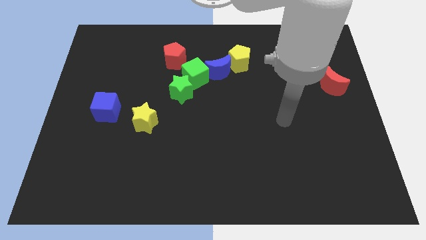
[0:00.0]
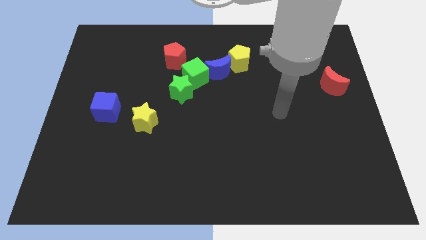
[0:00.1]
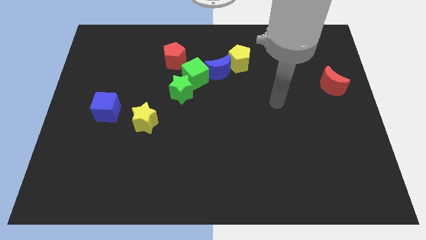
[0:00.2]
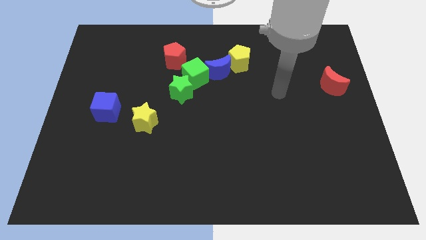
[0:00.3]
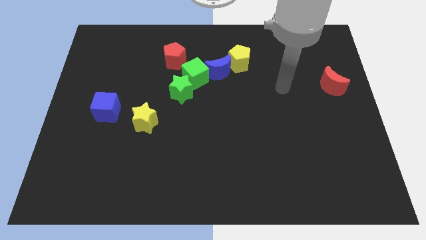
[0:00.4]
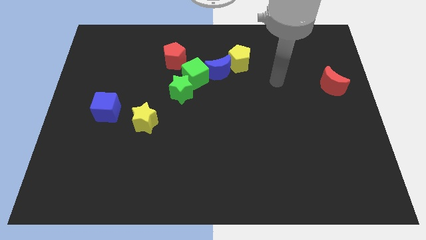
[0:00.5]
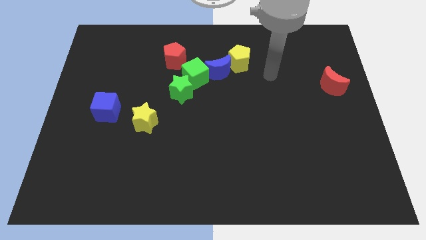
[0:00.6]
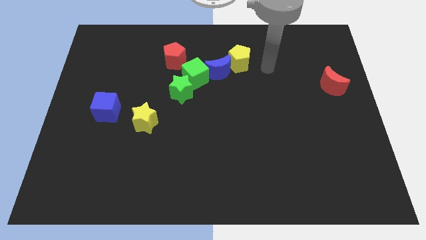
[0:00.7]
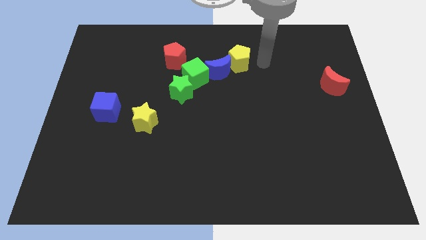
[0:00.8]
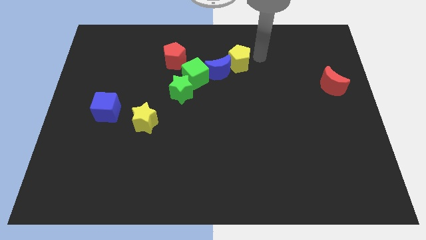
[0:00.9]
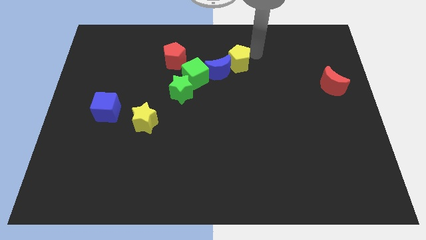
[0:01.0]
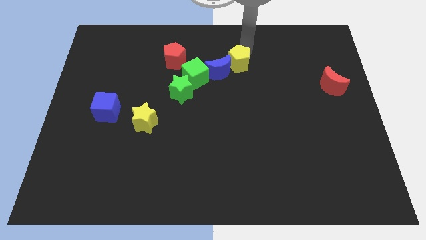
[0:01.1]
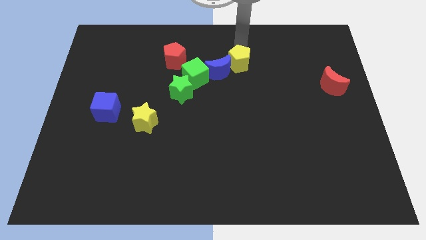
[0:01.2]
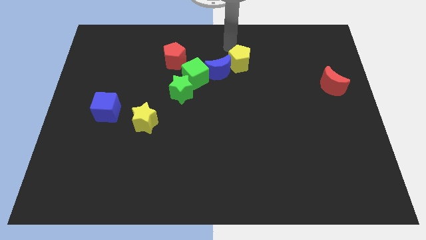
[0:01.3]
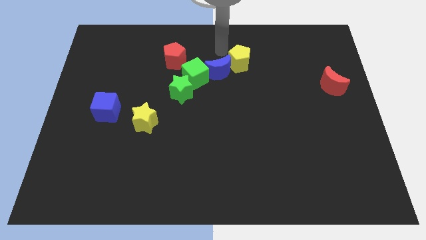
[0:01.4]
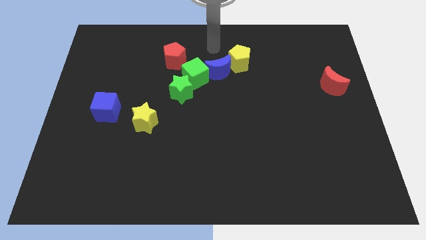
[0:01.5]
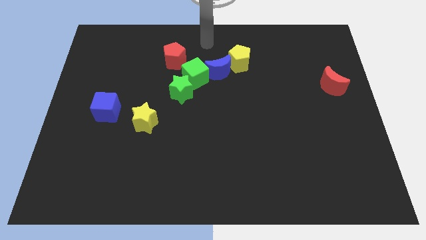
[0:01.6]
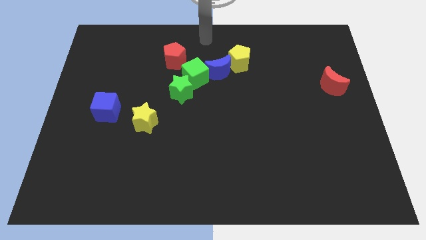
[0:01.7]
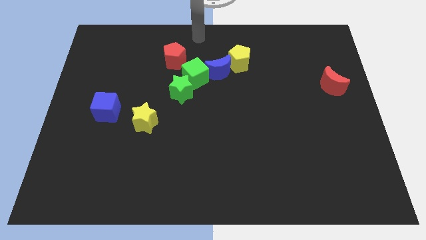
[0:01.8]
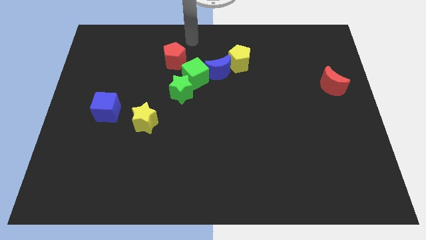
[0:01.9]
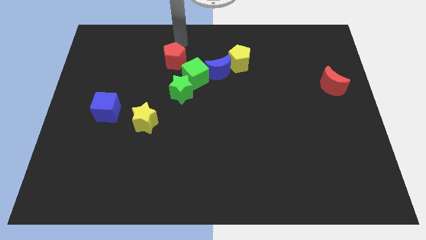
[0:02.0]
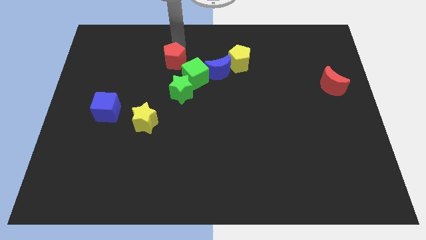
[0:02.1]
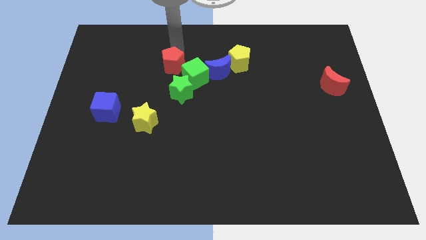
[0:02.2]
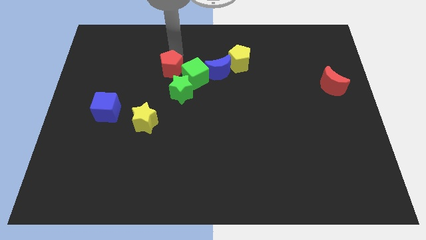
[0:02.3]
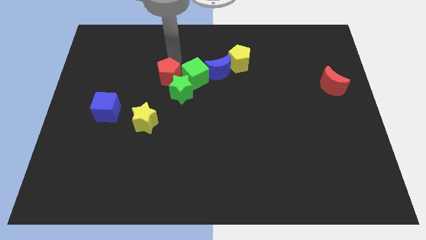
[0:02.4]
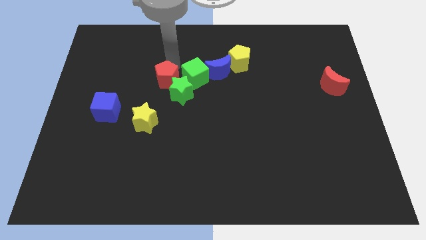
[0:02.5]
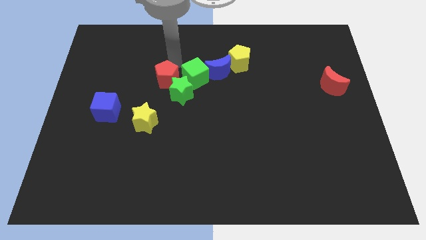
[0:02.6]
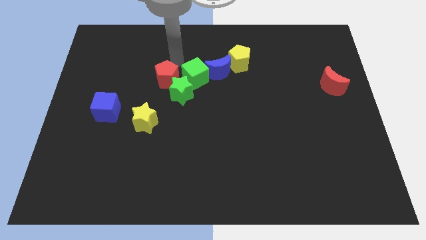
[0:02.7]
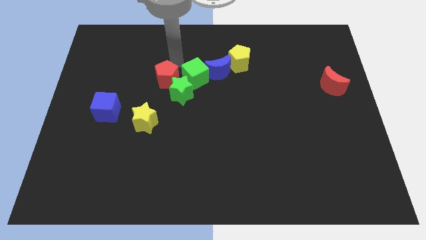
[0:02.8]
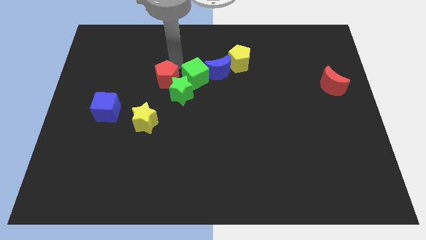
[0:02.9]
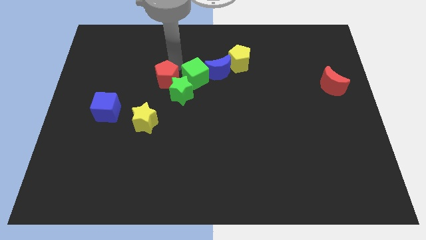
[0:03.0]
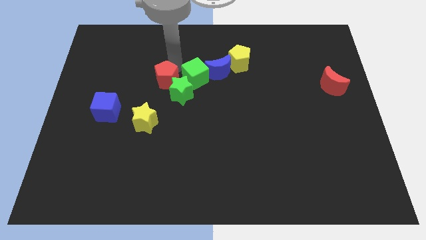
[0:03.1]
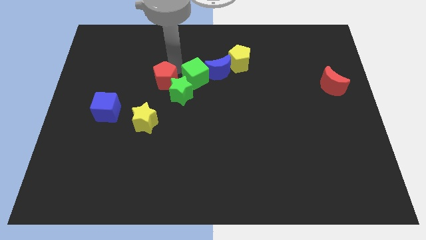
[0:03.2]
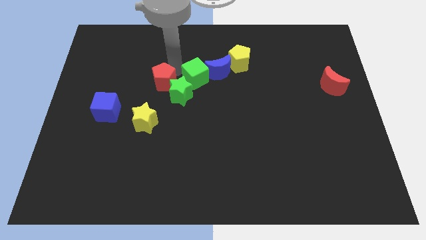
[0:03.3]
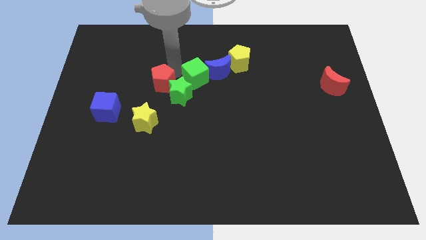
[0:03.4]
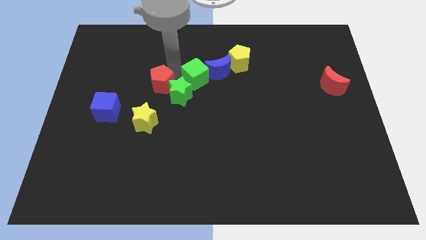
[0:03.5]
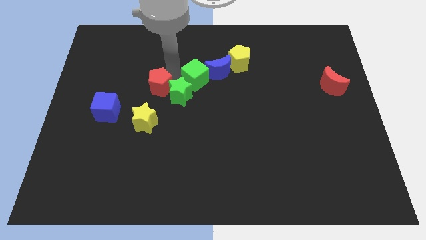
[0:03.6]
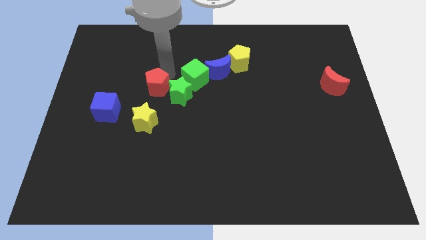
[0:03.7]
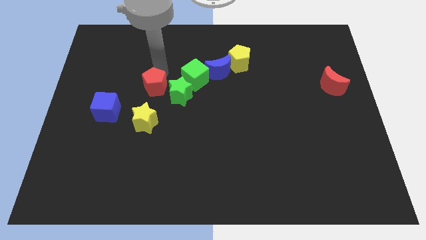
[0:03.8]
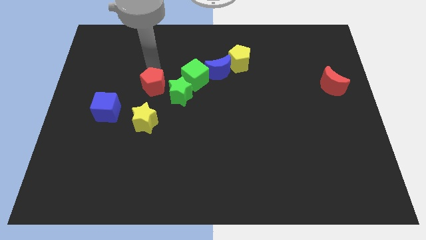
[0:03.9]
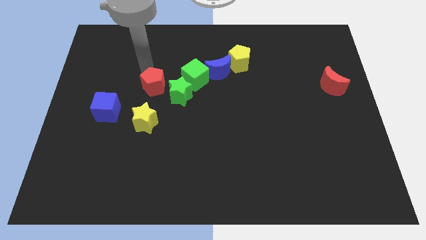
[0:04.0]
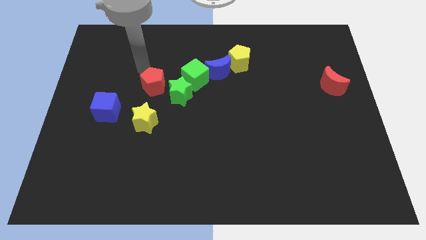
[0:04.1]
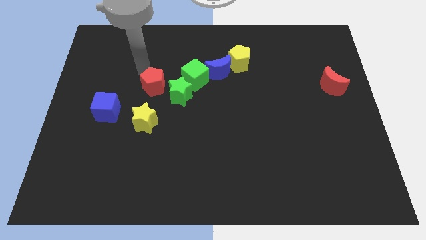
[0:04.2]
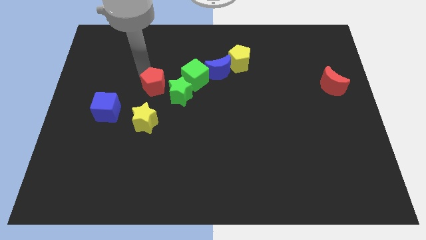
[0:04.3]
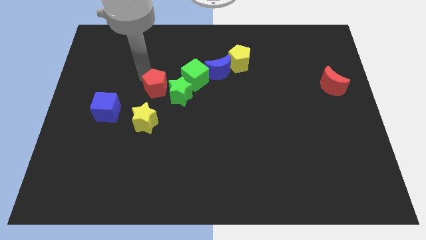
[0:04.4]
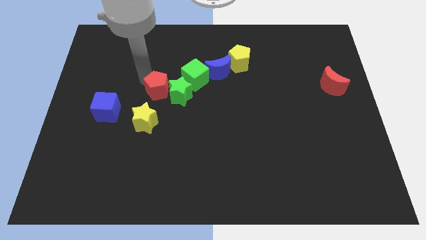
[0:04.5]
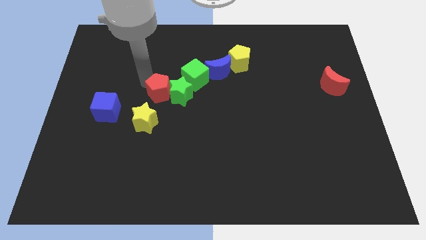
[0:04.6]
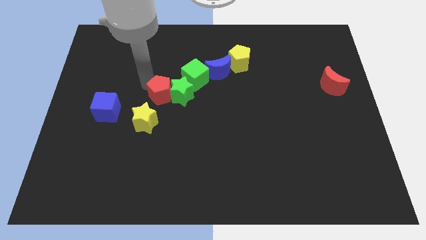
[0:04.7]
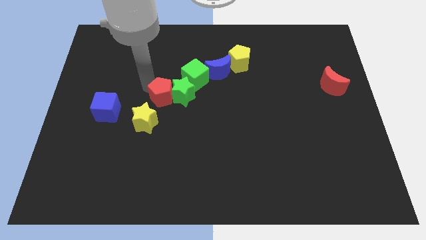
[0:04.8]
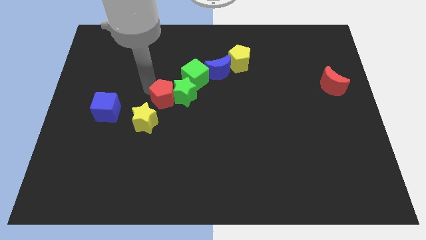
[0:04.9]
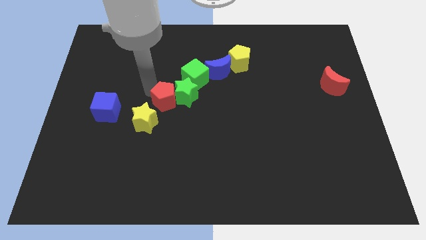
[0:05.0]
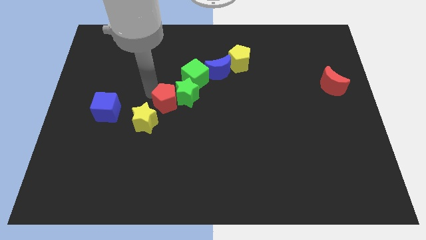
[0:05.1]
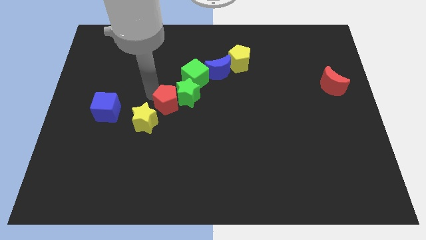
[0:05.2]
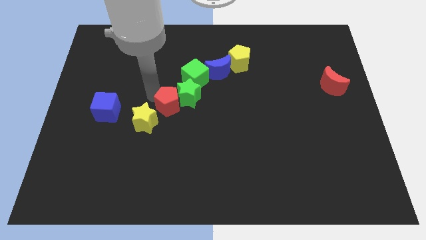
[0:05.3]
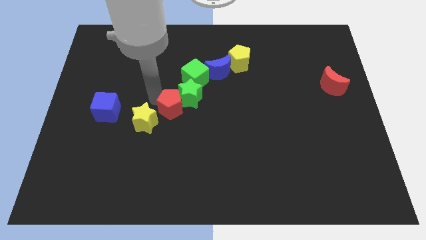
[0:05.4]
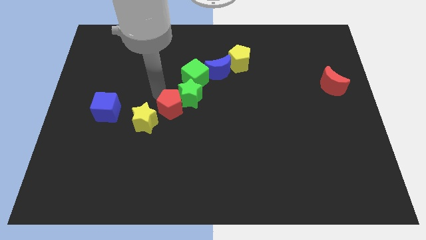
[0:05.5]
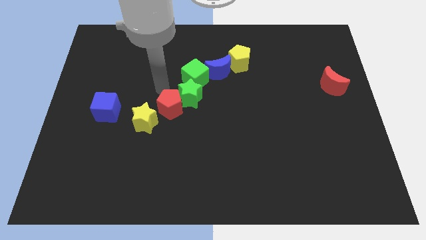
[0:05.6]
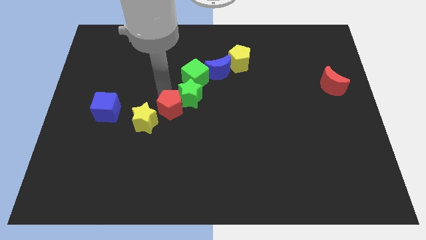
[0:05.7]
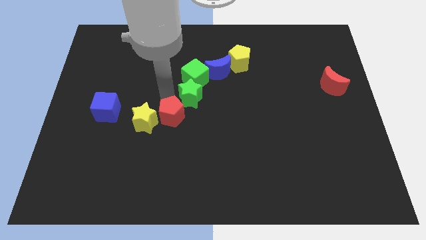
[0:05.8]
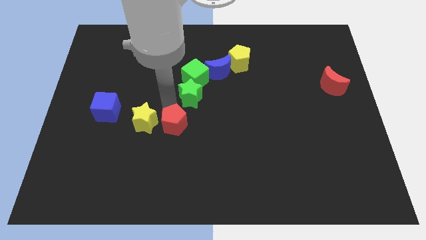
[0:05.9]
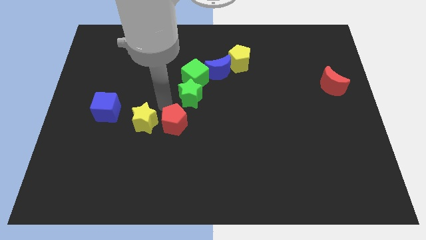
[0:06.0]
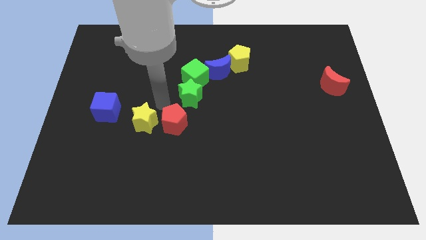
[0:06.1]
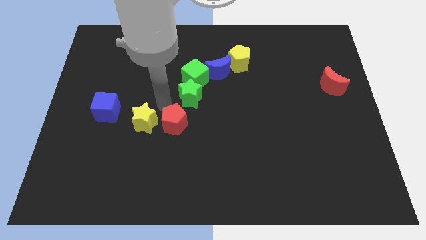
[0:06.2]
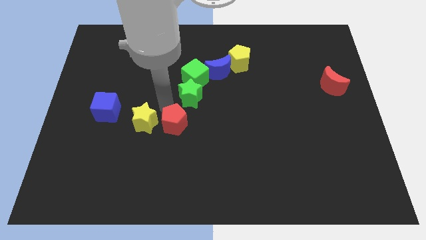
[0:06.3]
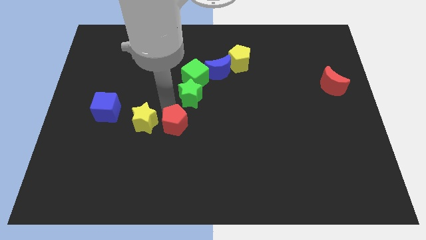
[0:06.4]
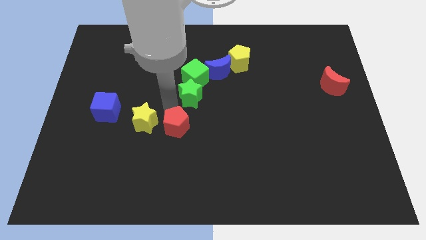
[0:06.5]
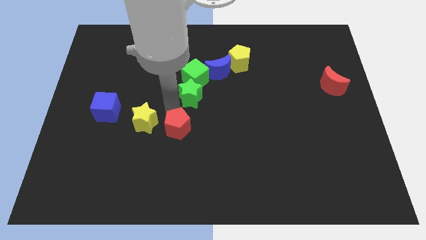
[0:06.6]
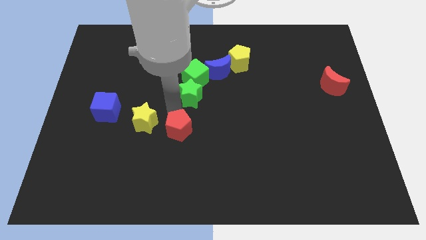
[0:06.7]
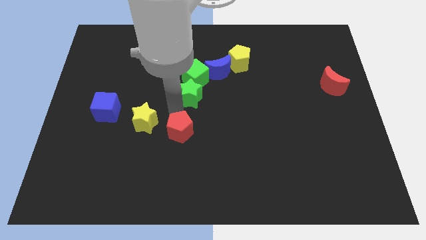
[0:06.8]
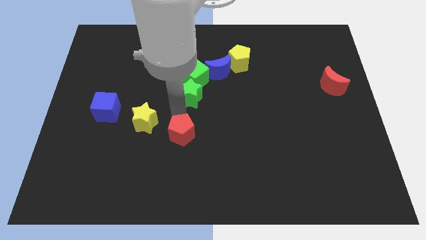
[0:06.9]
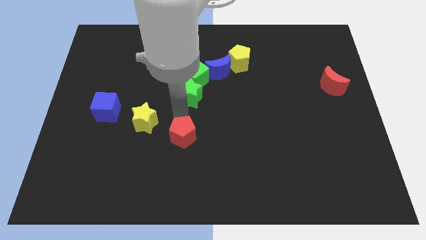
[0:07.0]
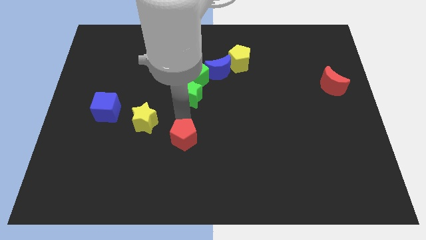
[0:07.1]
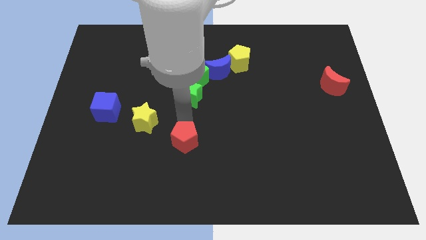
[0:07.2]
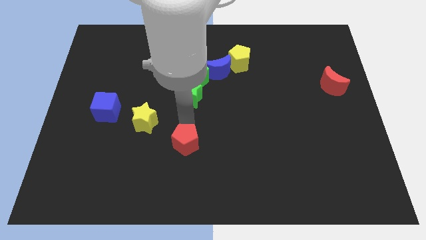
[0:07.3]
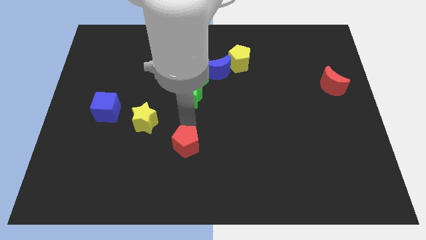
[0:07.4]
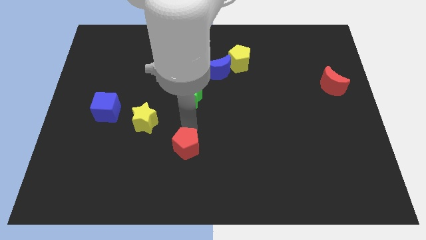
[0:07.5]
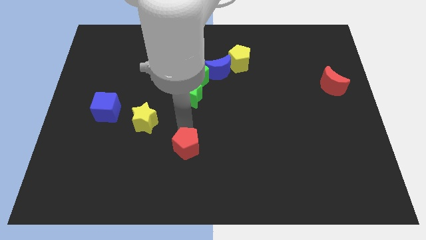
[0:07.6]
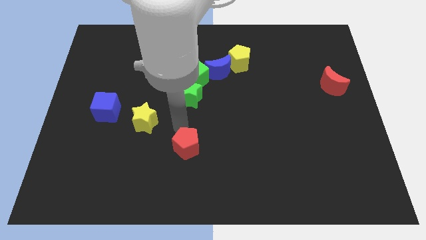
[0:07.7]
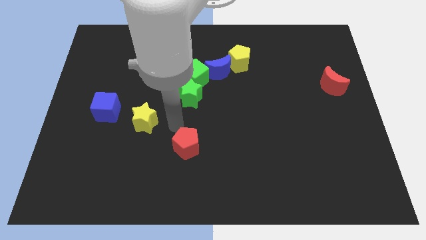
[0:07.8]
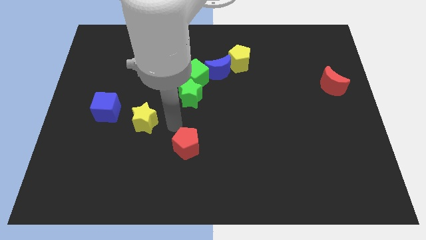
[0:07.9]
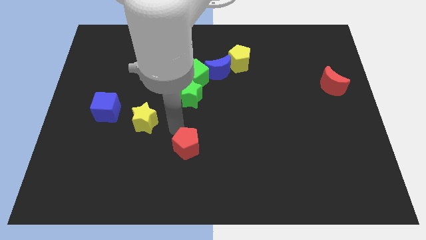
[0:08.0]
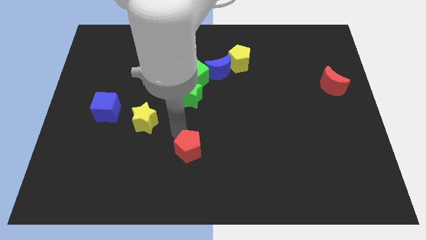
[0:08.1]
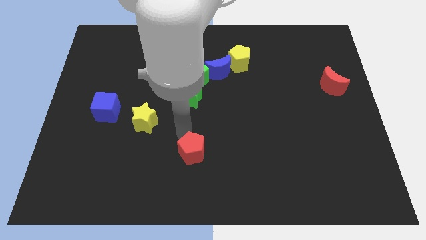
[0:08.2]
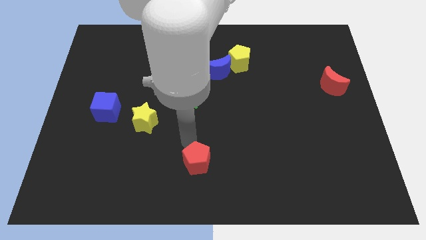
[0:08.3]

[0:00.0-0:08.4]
push the red pentagon to the bottom
